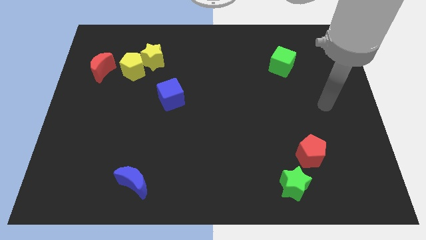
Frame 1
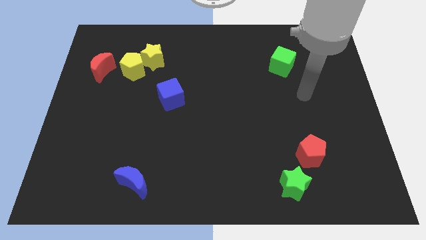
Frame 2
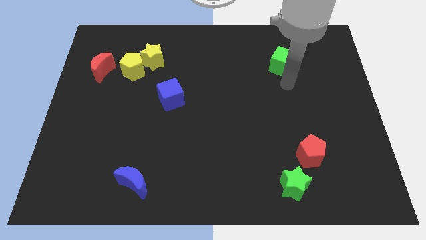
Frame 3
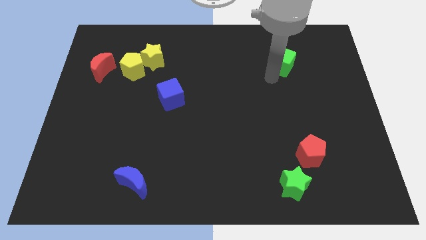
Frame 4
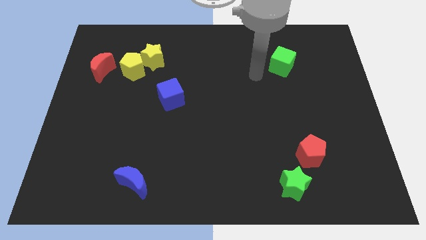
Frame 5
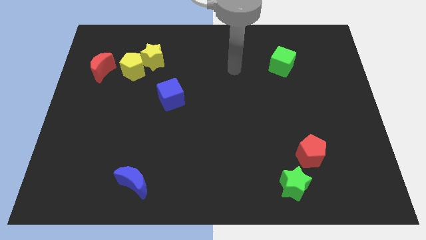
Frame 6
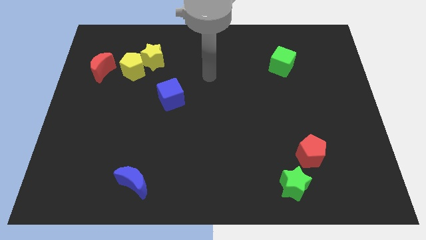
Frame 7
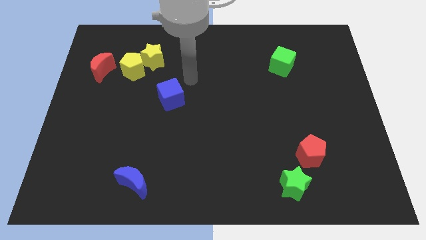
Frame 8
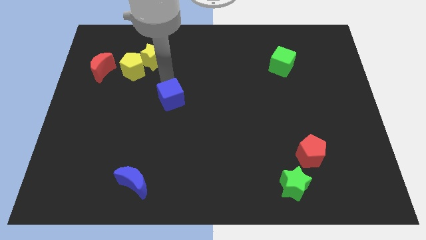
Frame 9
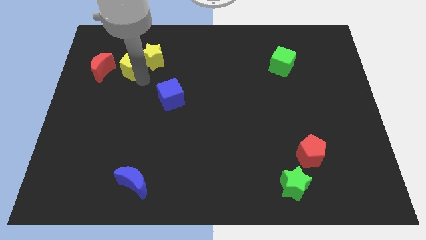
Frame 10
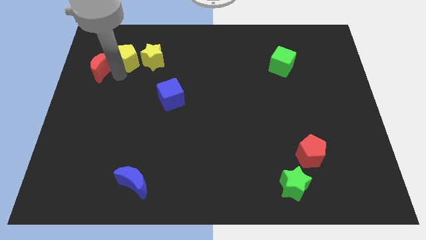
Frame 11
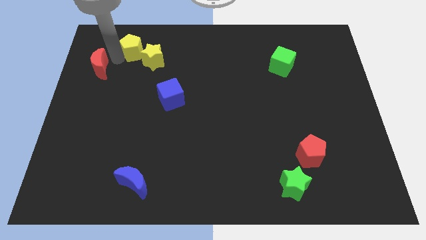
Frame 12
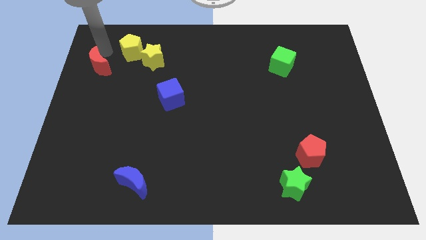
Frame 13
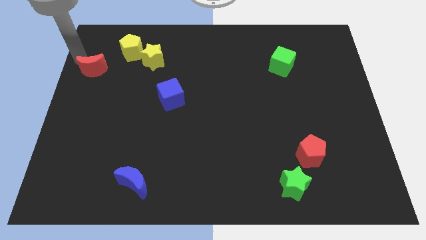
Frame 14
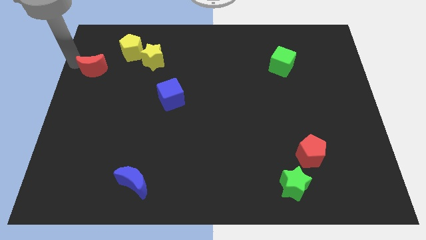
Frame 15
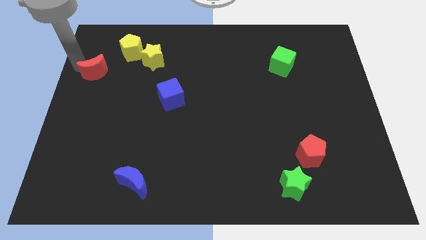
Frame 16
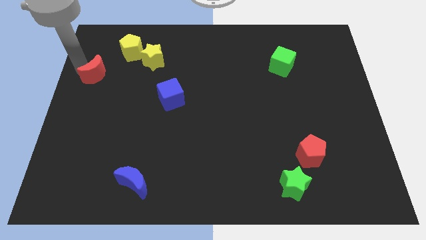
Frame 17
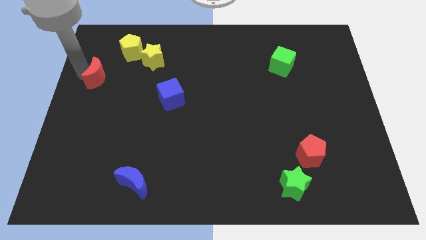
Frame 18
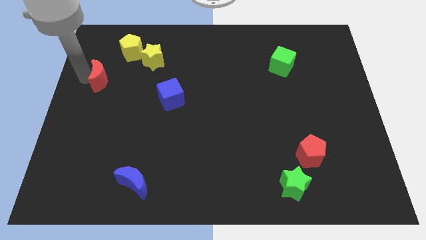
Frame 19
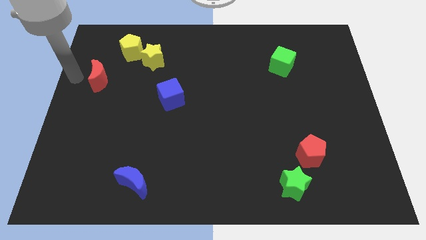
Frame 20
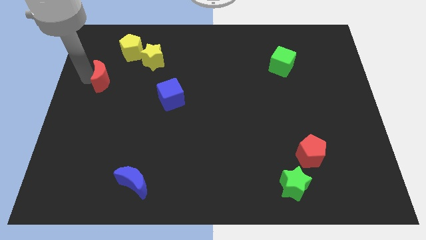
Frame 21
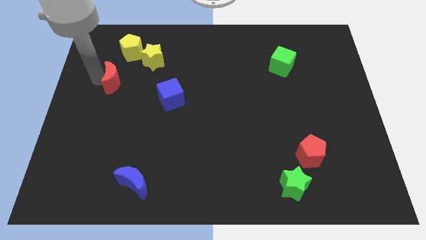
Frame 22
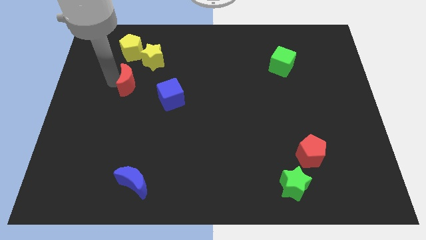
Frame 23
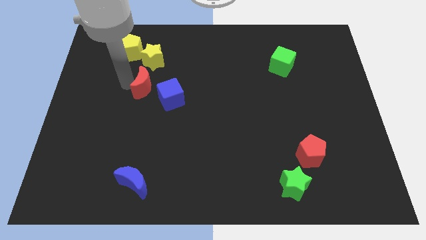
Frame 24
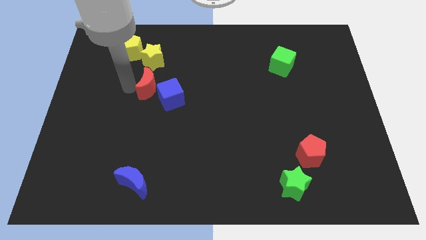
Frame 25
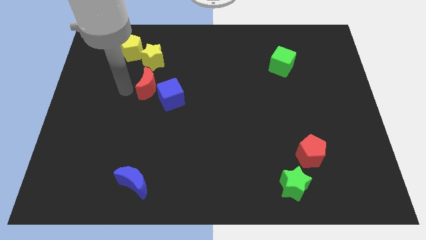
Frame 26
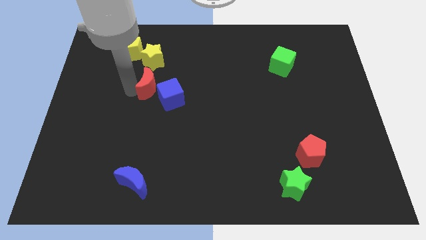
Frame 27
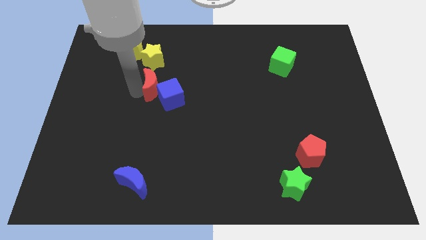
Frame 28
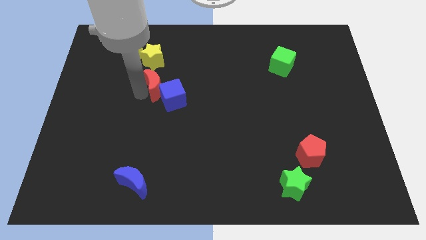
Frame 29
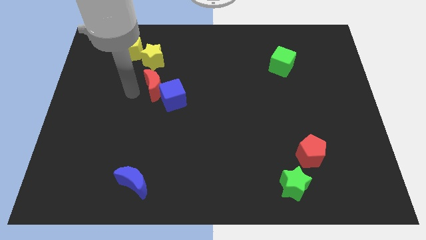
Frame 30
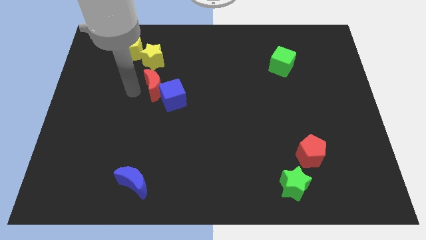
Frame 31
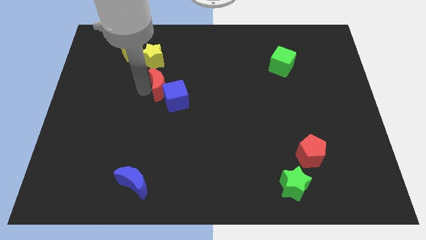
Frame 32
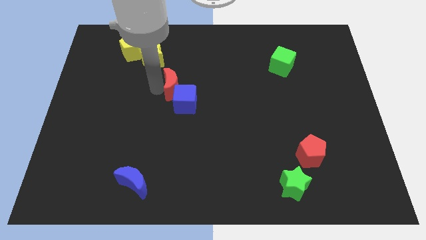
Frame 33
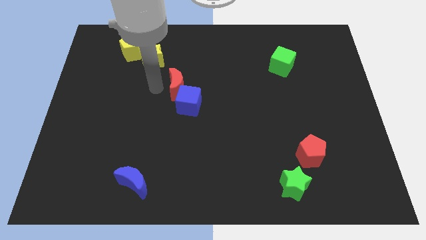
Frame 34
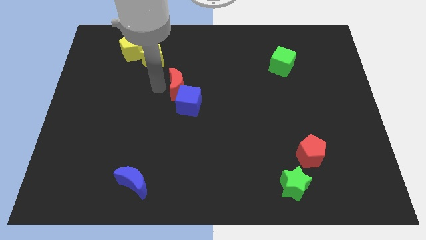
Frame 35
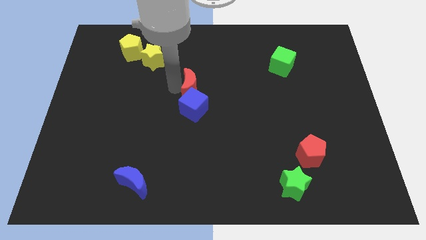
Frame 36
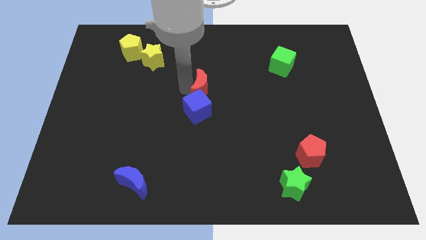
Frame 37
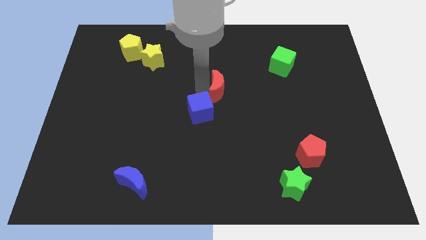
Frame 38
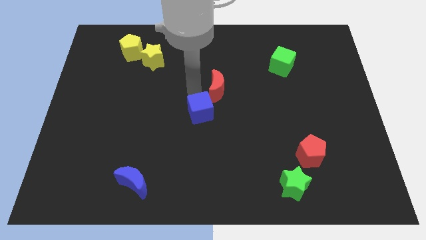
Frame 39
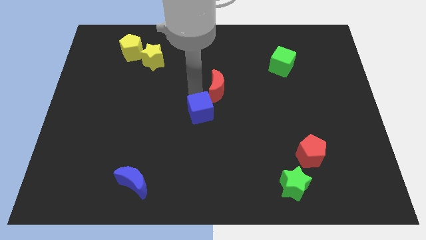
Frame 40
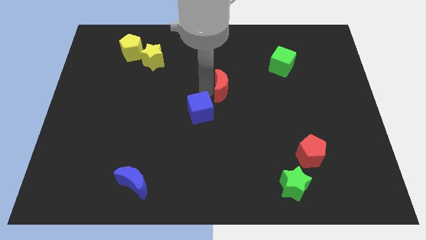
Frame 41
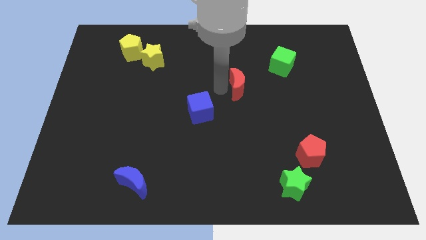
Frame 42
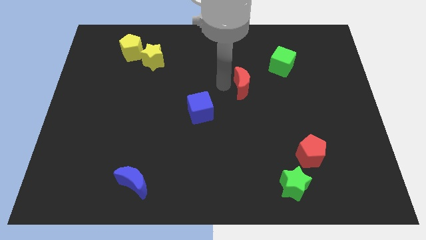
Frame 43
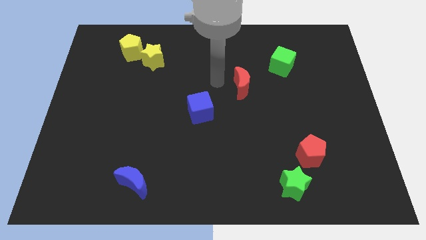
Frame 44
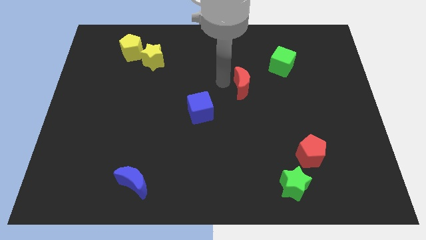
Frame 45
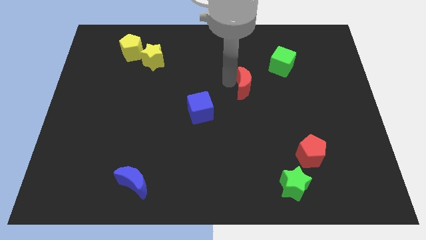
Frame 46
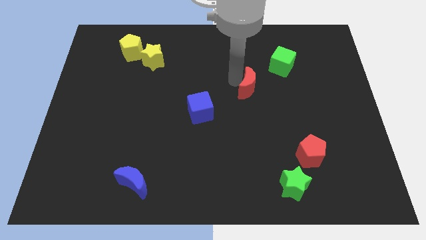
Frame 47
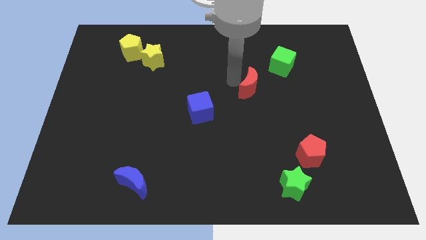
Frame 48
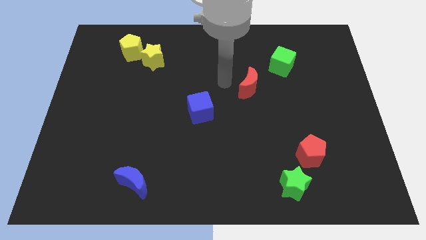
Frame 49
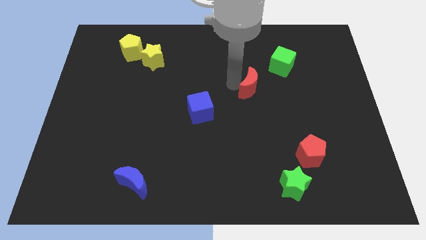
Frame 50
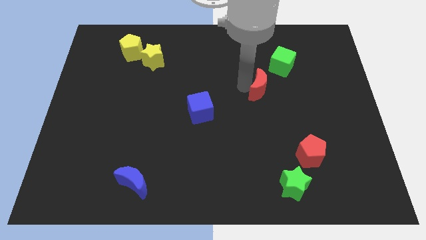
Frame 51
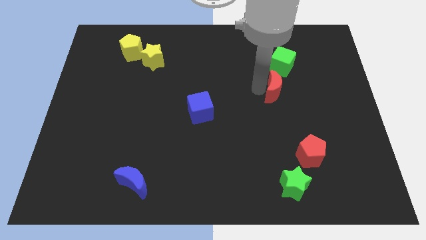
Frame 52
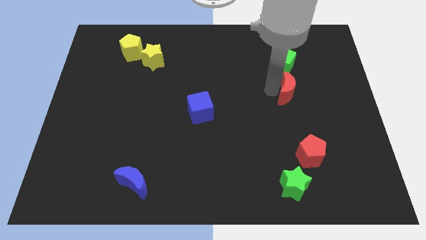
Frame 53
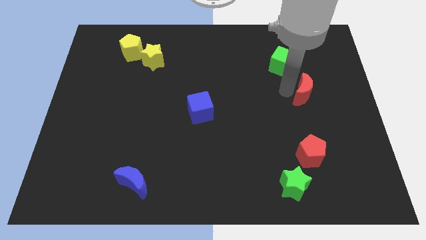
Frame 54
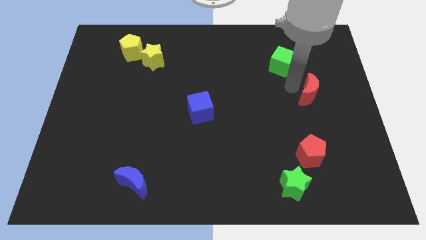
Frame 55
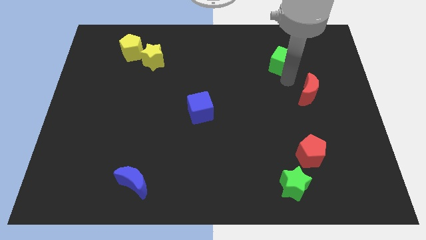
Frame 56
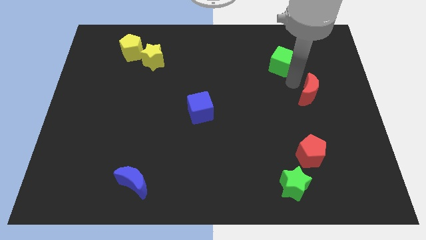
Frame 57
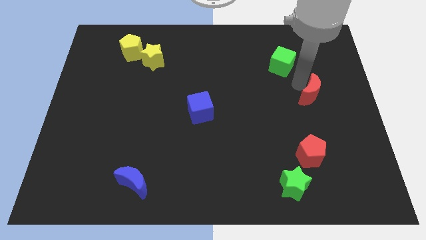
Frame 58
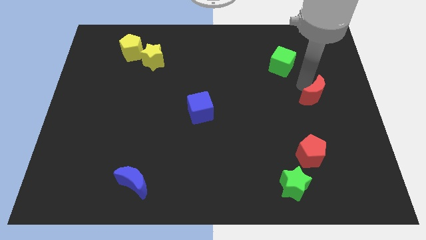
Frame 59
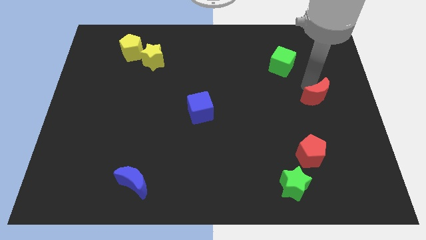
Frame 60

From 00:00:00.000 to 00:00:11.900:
put the red moon to the right side of the board
